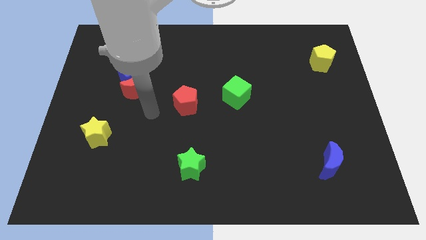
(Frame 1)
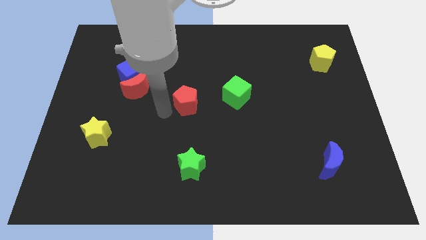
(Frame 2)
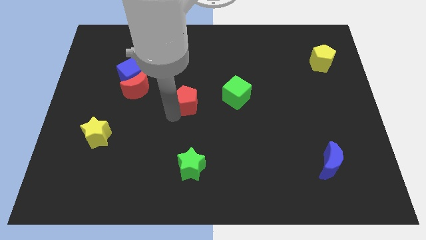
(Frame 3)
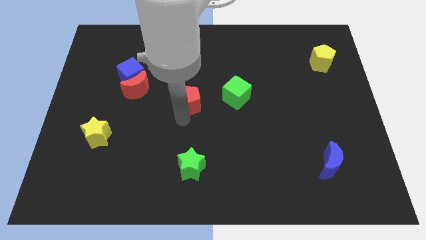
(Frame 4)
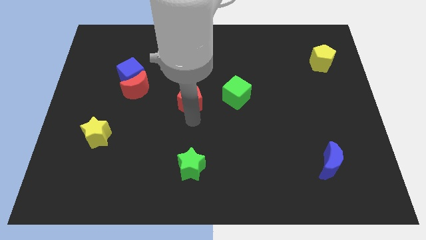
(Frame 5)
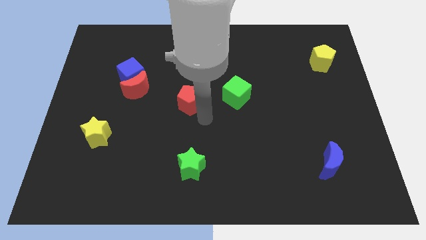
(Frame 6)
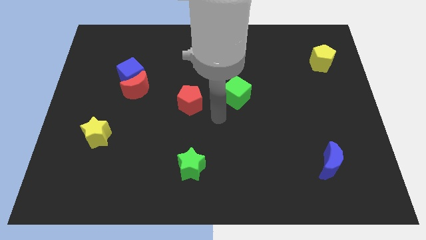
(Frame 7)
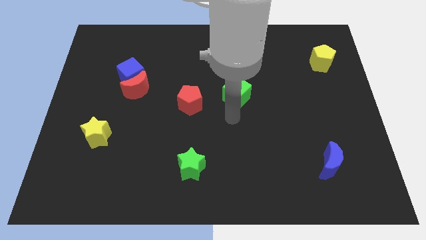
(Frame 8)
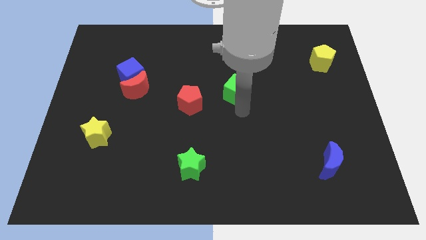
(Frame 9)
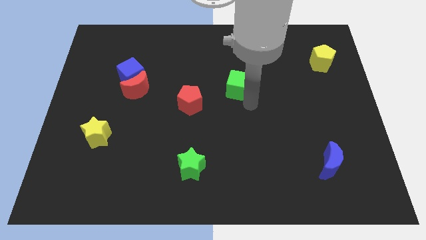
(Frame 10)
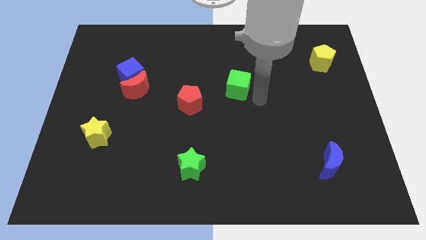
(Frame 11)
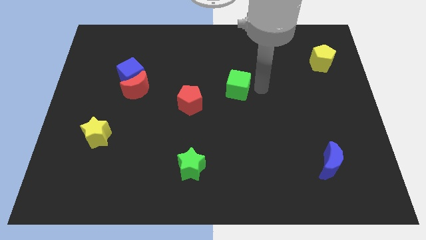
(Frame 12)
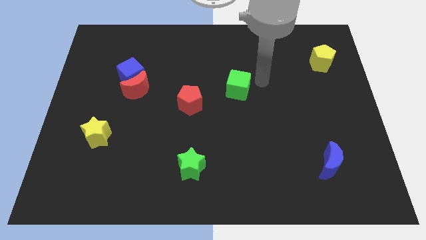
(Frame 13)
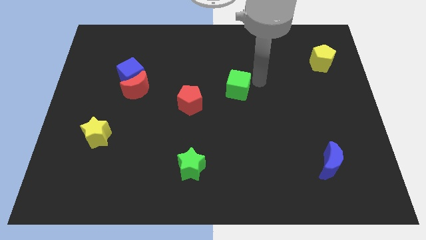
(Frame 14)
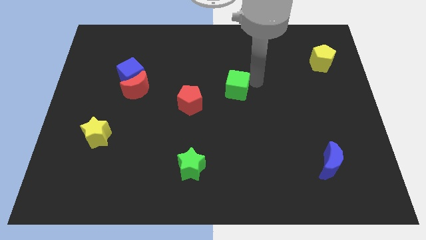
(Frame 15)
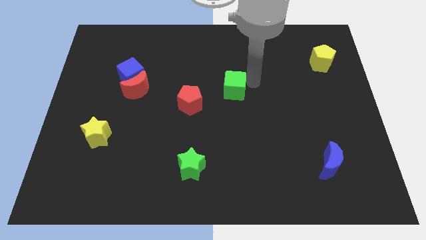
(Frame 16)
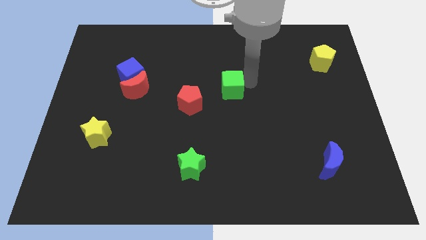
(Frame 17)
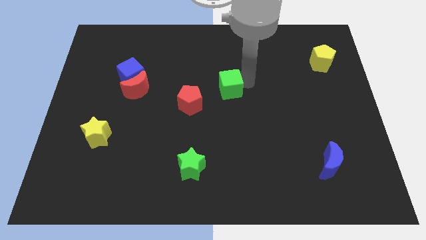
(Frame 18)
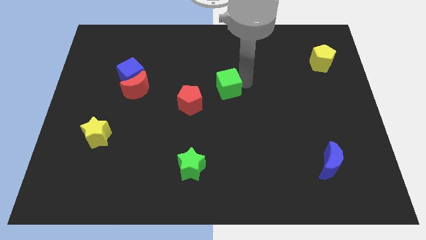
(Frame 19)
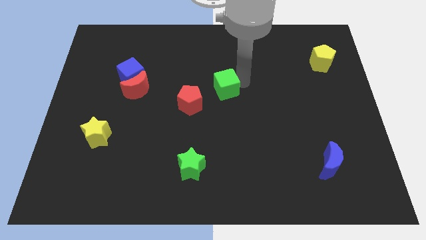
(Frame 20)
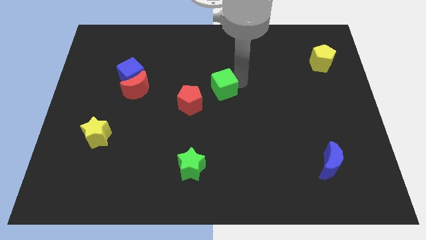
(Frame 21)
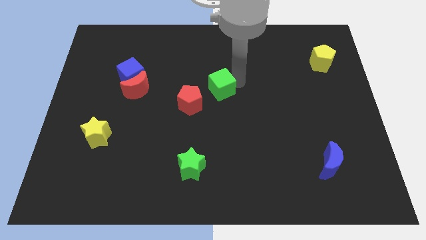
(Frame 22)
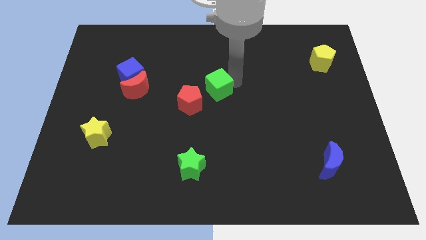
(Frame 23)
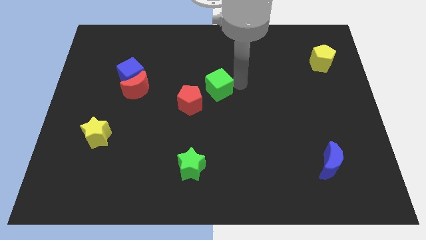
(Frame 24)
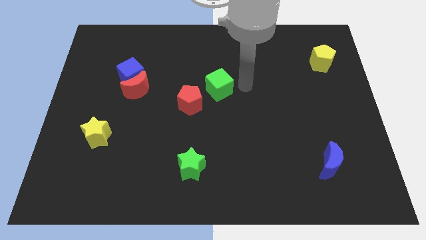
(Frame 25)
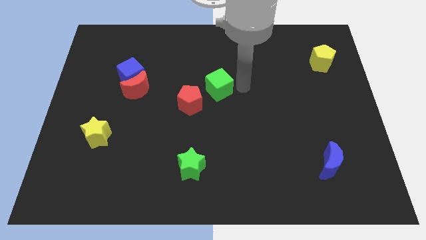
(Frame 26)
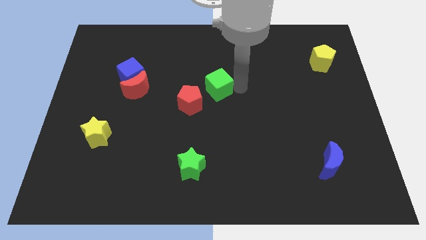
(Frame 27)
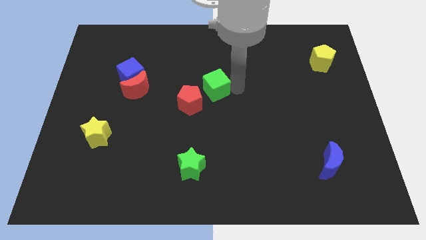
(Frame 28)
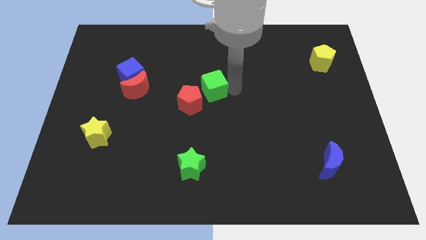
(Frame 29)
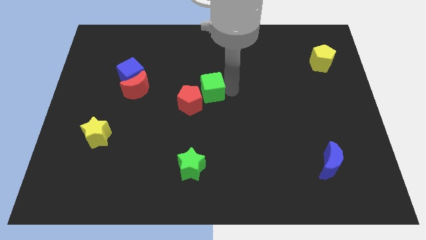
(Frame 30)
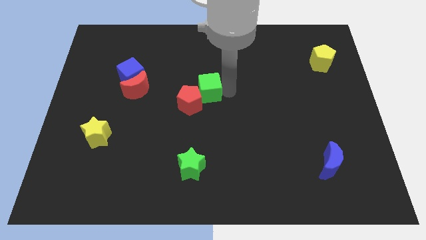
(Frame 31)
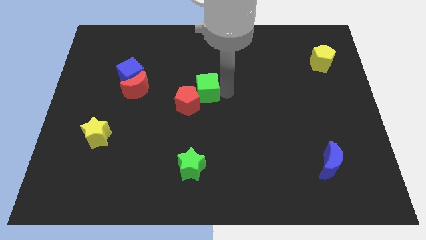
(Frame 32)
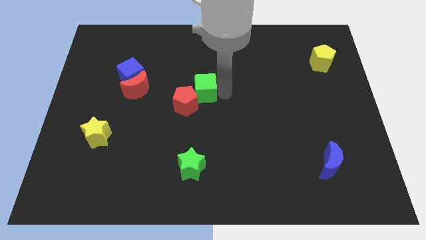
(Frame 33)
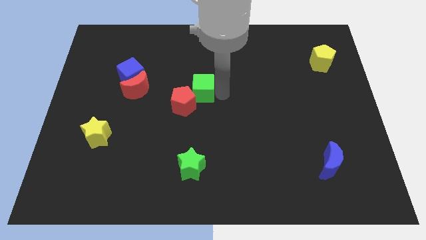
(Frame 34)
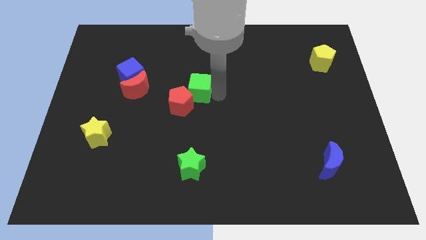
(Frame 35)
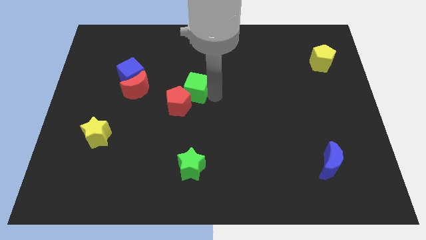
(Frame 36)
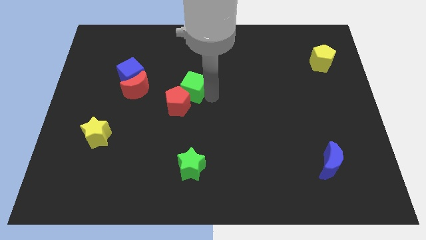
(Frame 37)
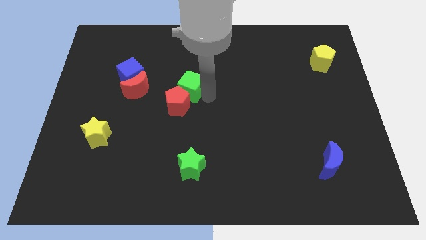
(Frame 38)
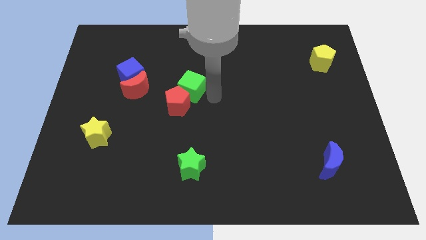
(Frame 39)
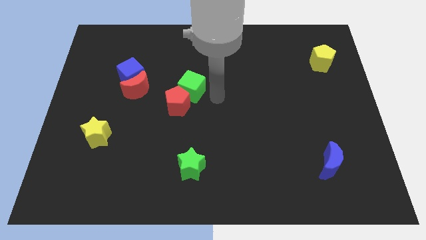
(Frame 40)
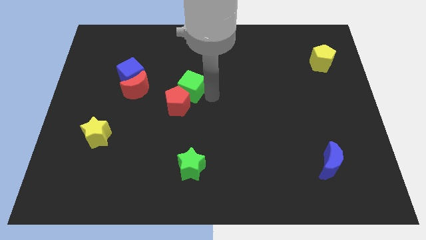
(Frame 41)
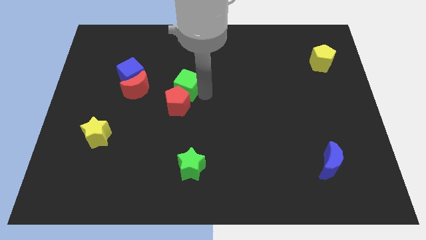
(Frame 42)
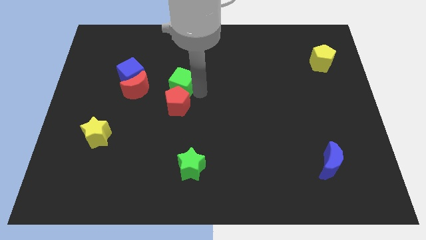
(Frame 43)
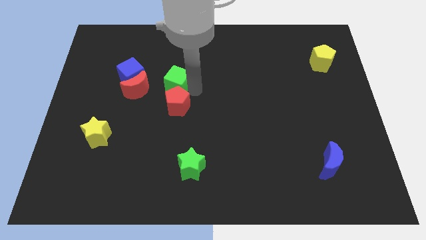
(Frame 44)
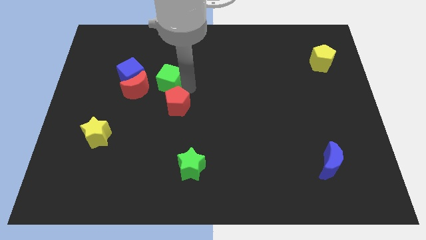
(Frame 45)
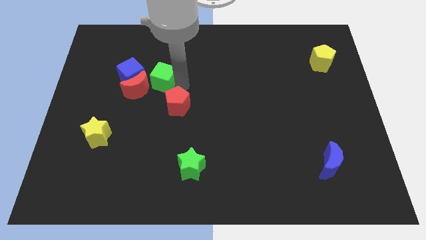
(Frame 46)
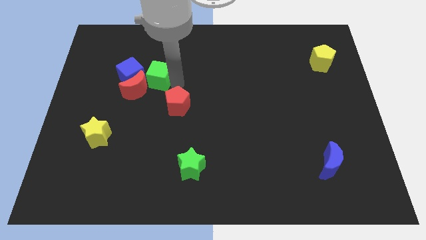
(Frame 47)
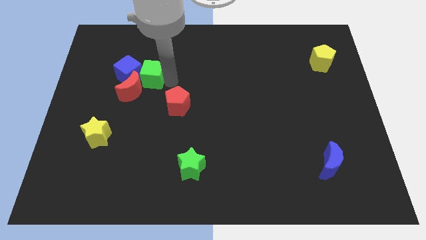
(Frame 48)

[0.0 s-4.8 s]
put the green cube next to the blue cube

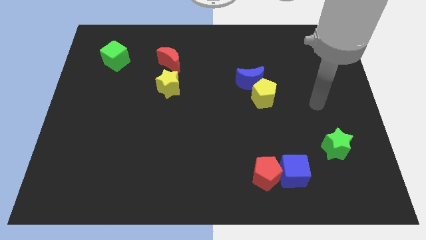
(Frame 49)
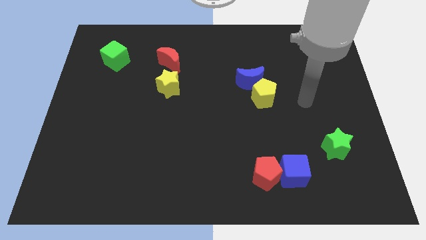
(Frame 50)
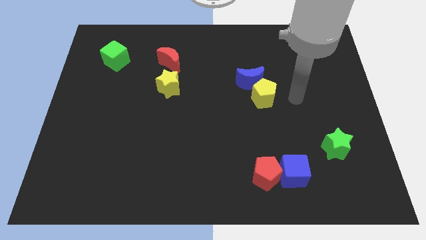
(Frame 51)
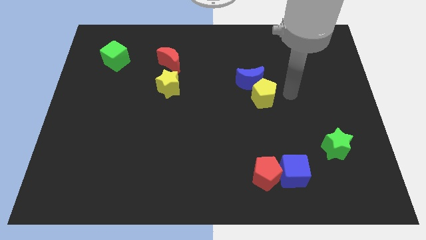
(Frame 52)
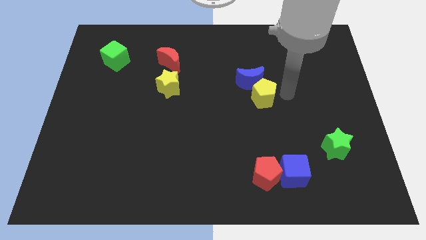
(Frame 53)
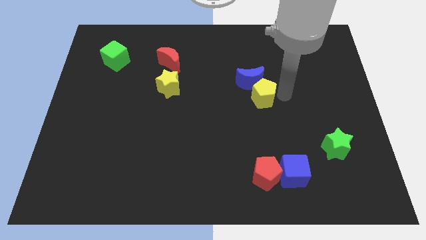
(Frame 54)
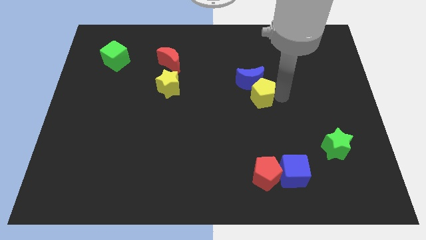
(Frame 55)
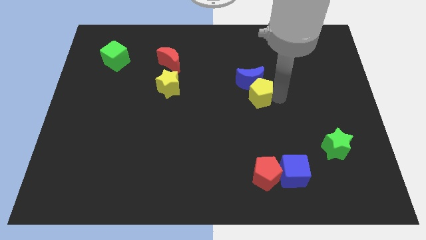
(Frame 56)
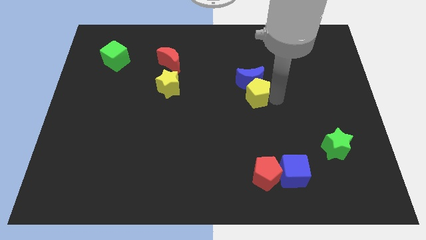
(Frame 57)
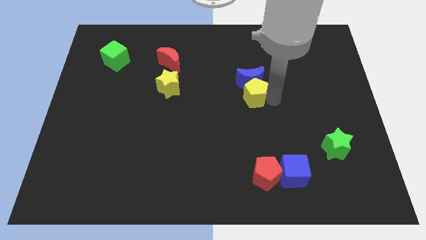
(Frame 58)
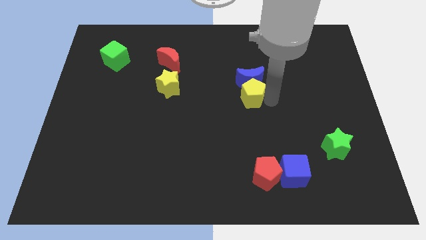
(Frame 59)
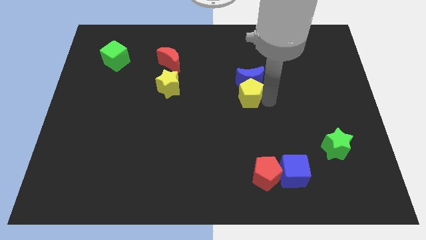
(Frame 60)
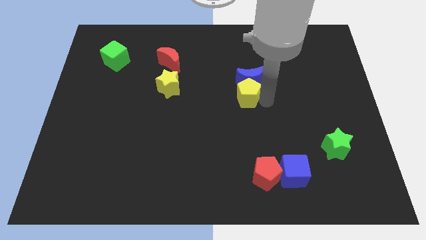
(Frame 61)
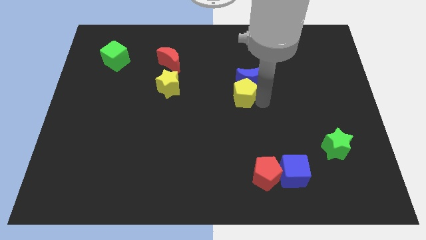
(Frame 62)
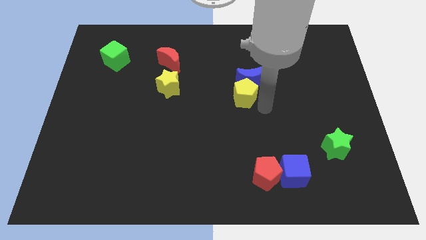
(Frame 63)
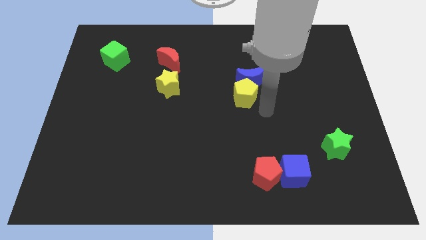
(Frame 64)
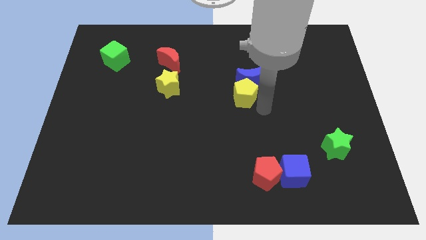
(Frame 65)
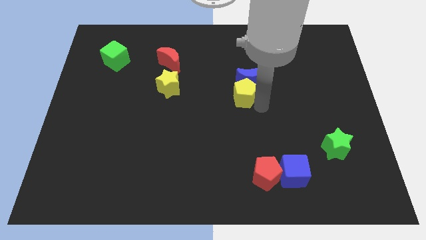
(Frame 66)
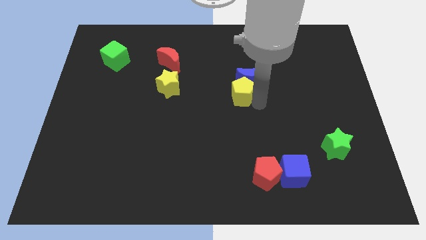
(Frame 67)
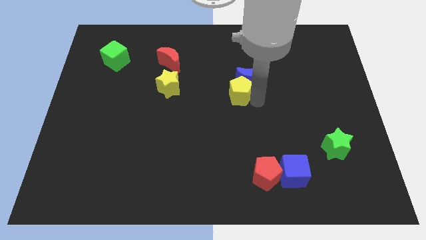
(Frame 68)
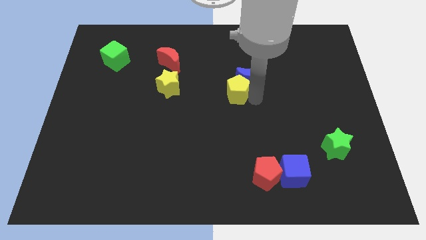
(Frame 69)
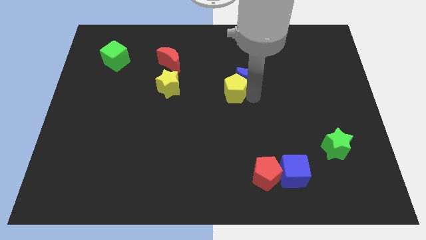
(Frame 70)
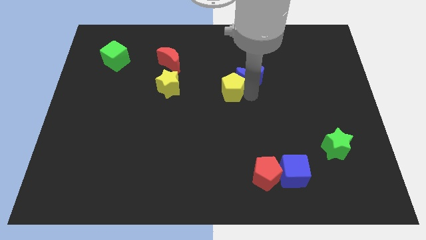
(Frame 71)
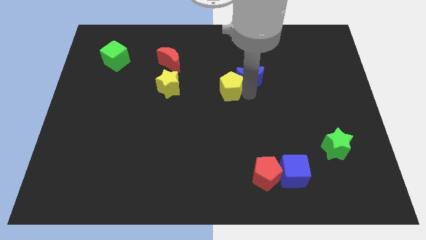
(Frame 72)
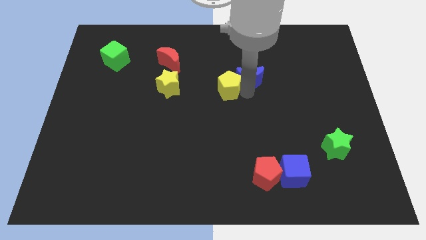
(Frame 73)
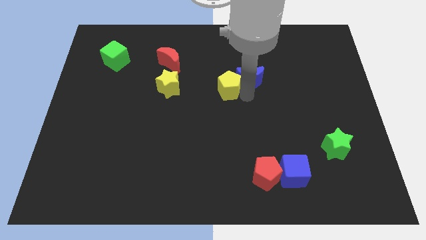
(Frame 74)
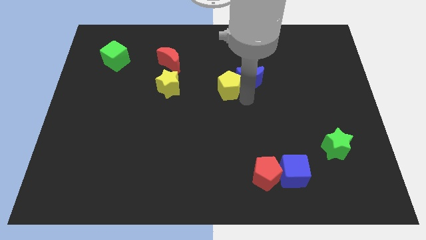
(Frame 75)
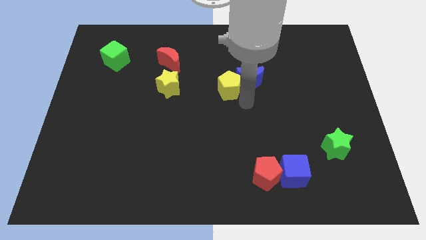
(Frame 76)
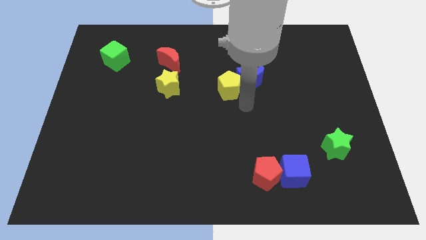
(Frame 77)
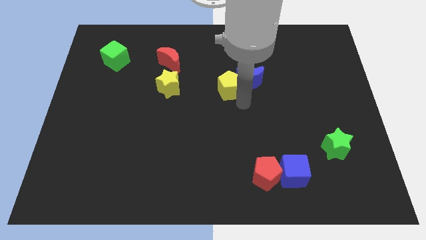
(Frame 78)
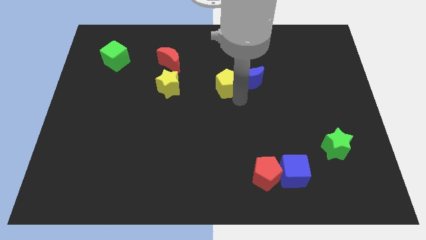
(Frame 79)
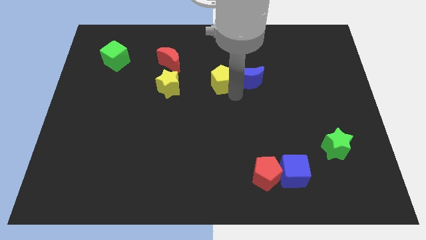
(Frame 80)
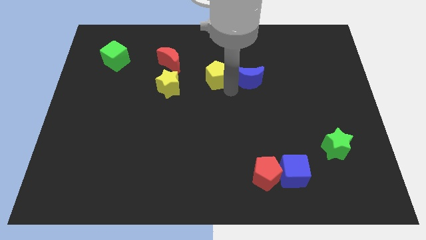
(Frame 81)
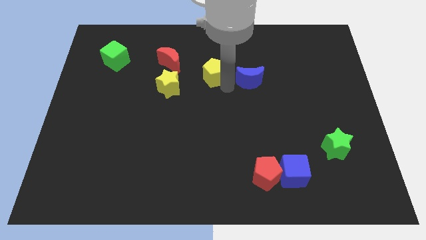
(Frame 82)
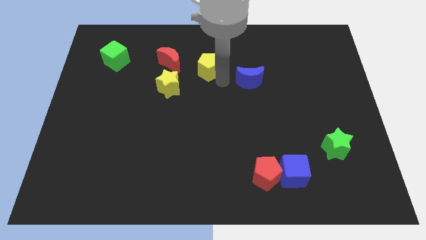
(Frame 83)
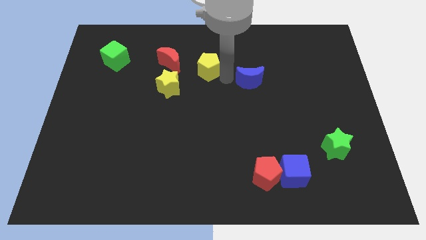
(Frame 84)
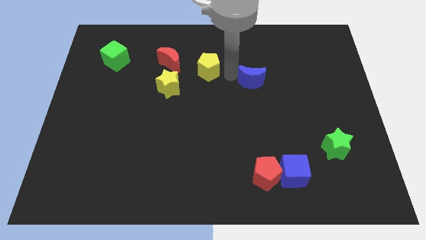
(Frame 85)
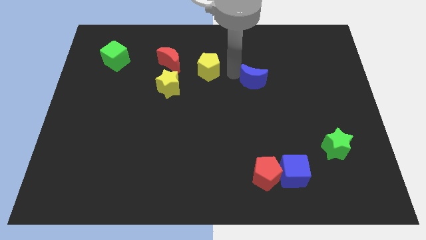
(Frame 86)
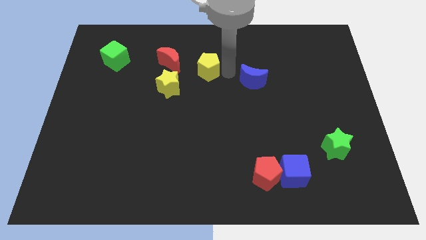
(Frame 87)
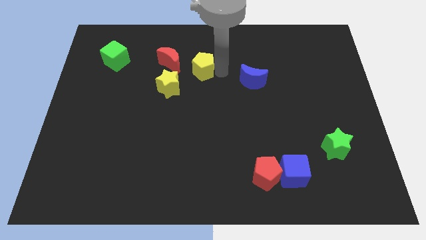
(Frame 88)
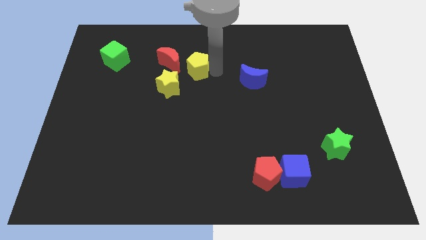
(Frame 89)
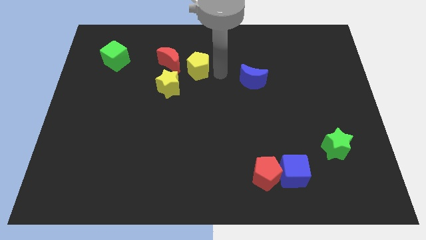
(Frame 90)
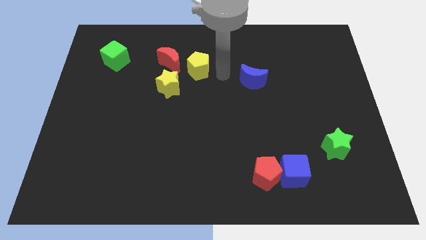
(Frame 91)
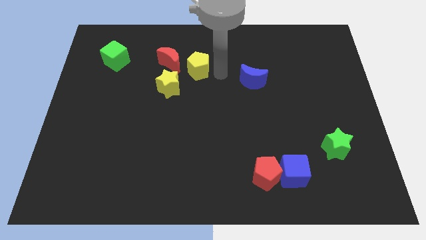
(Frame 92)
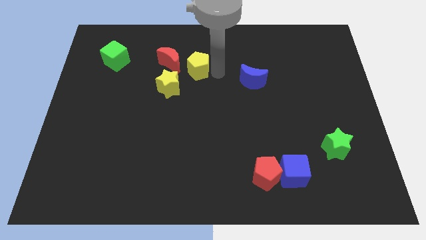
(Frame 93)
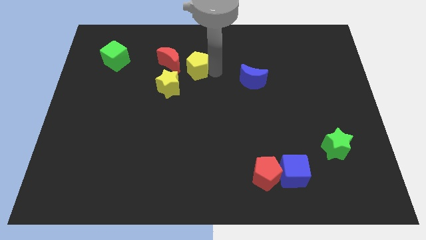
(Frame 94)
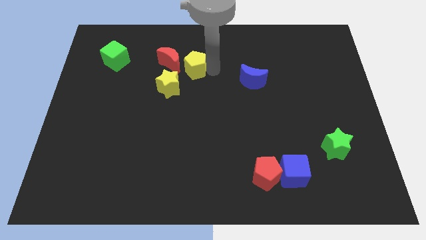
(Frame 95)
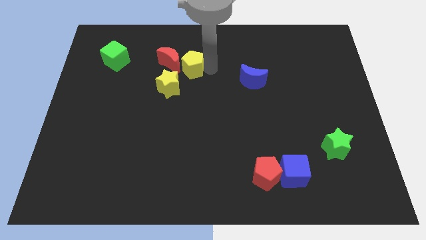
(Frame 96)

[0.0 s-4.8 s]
push the yellow pentagon next to the red moon
